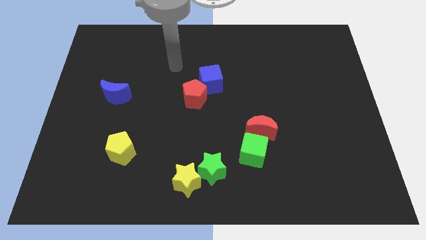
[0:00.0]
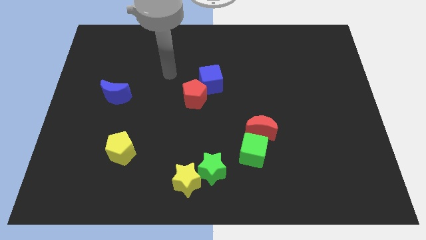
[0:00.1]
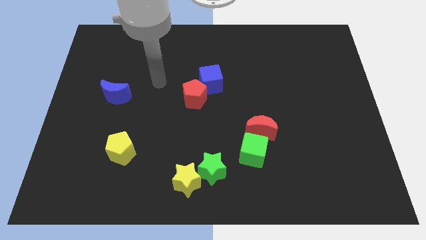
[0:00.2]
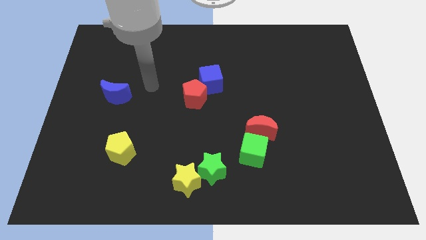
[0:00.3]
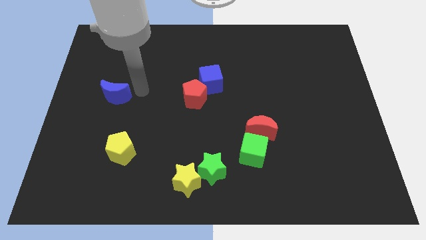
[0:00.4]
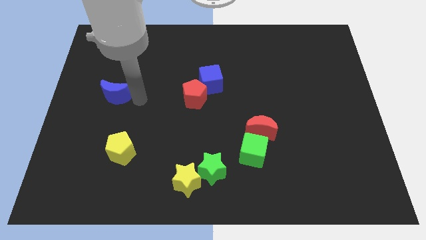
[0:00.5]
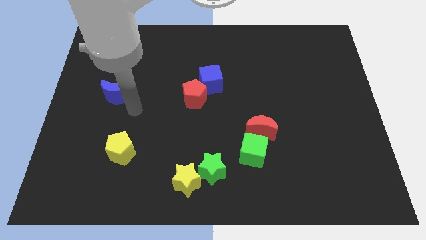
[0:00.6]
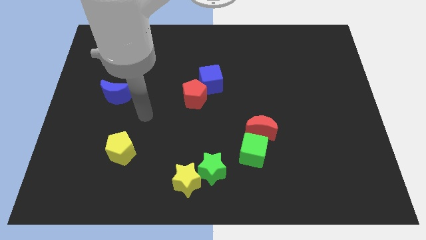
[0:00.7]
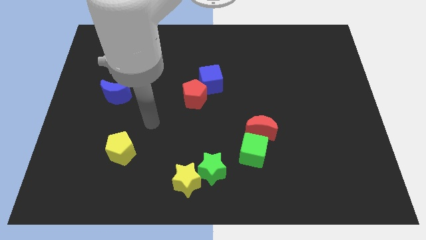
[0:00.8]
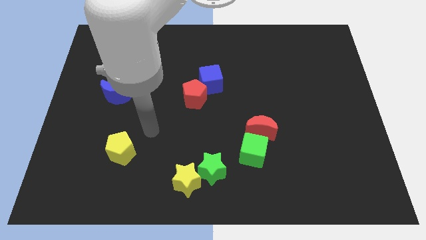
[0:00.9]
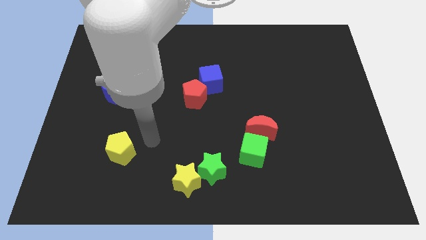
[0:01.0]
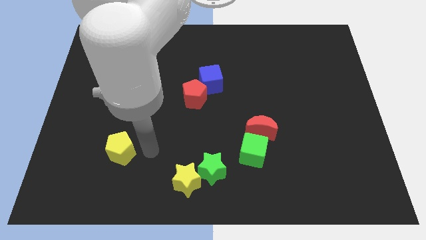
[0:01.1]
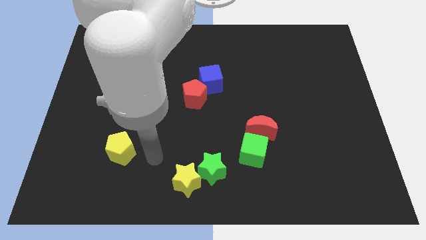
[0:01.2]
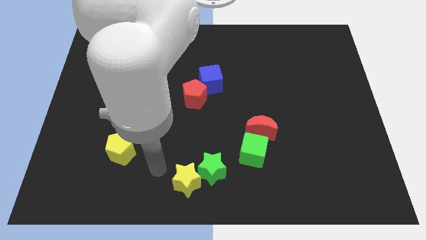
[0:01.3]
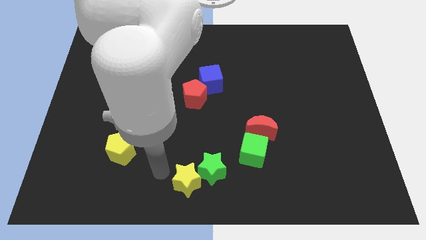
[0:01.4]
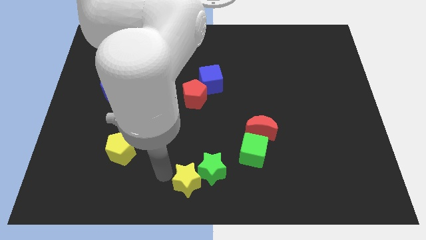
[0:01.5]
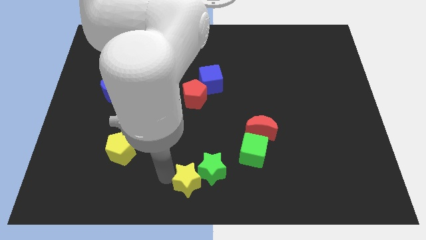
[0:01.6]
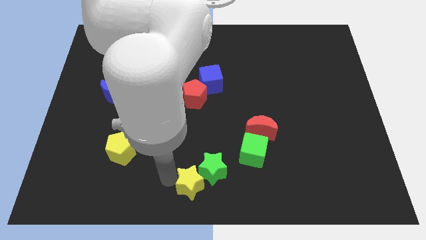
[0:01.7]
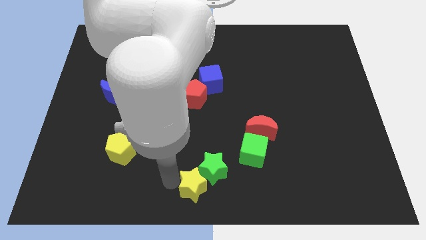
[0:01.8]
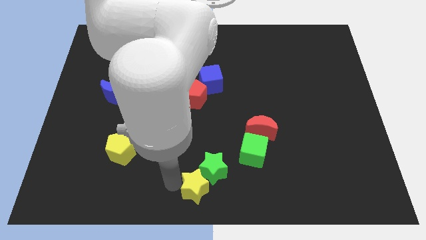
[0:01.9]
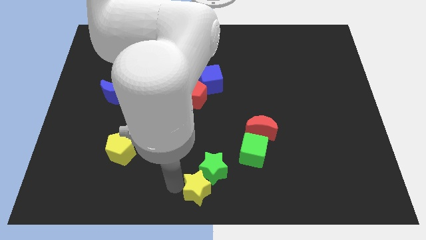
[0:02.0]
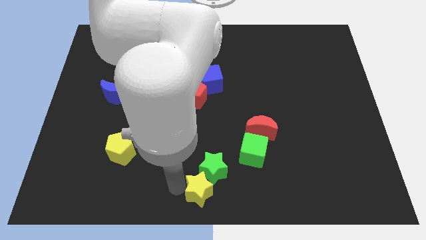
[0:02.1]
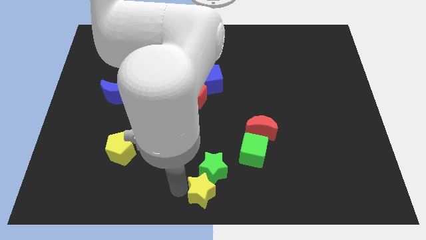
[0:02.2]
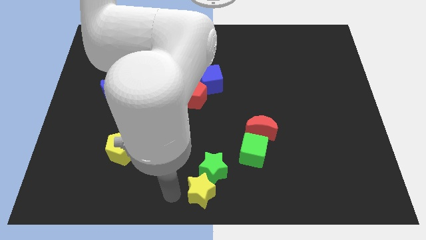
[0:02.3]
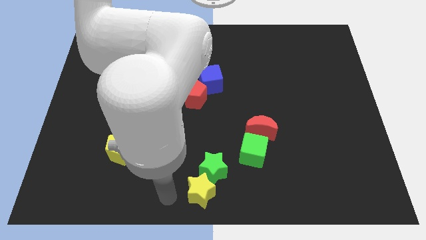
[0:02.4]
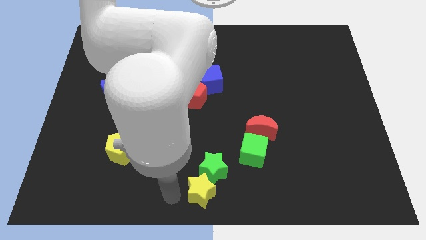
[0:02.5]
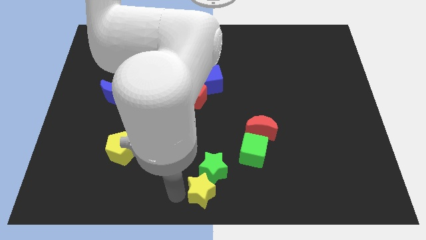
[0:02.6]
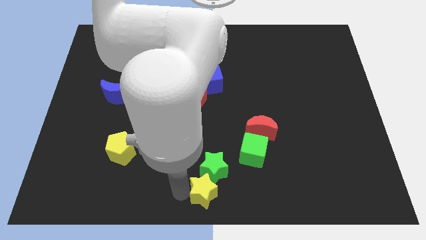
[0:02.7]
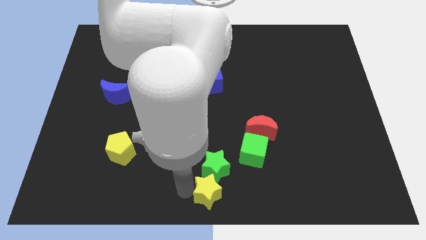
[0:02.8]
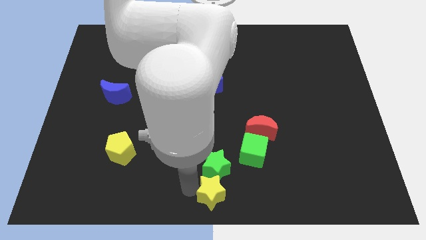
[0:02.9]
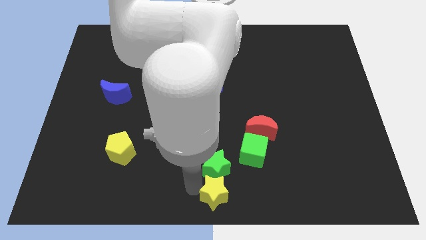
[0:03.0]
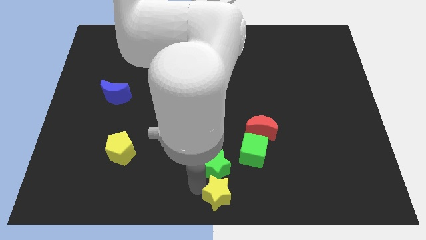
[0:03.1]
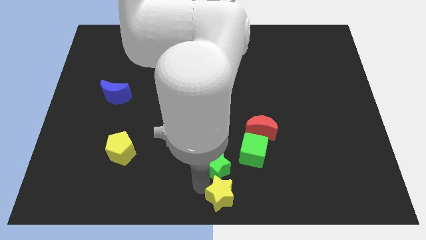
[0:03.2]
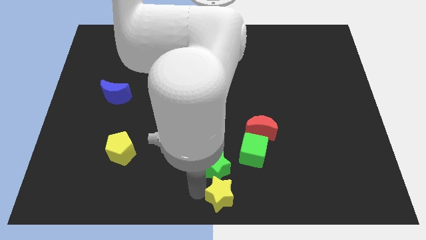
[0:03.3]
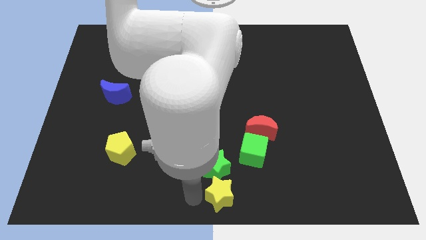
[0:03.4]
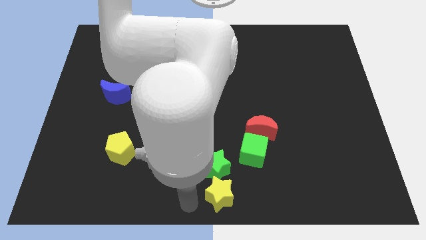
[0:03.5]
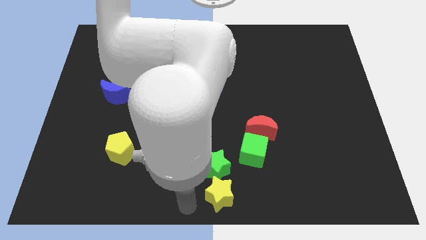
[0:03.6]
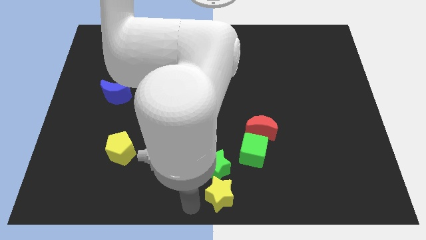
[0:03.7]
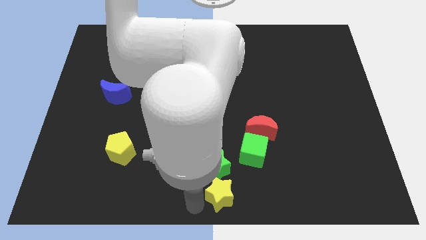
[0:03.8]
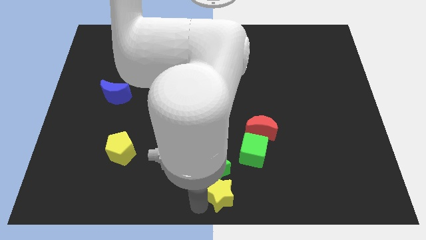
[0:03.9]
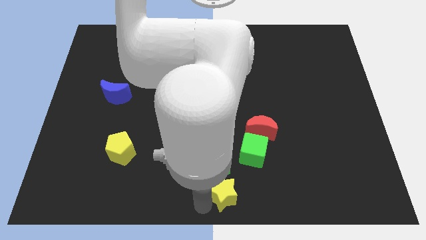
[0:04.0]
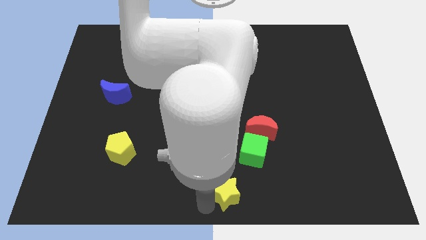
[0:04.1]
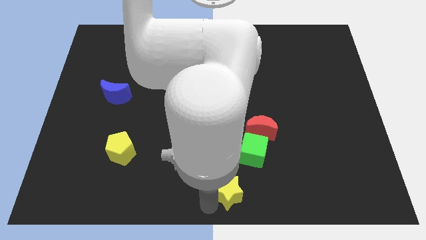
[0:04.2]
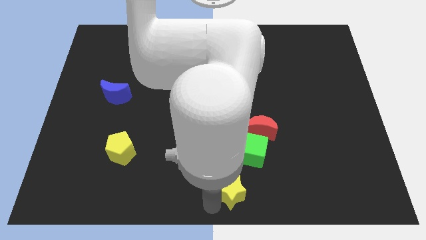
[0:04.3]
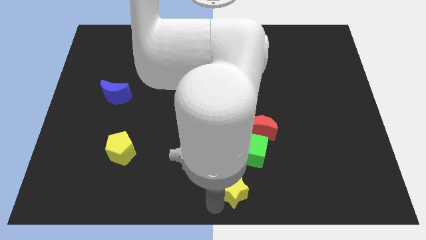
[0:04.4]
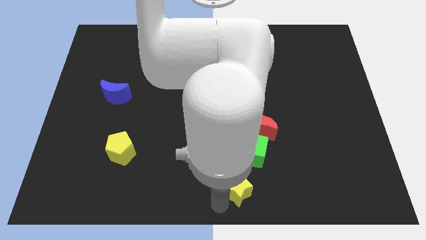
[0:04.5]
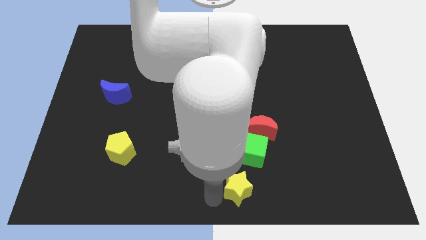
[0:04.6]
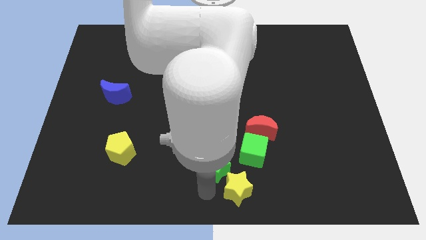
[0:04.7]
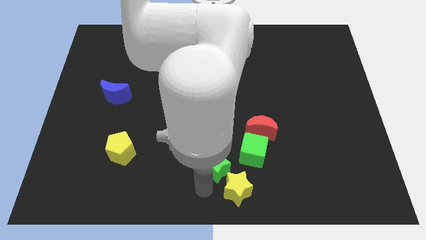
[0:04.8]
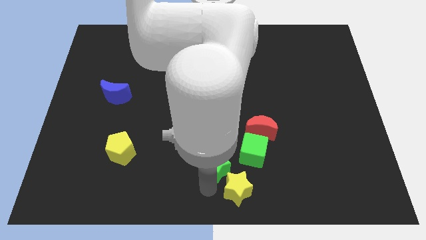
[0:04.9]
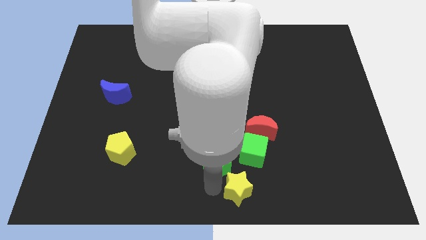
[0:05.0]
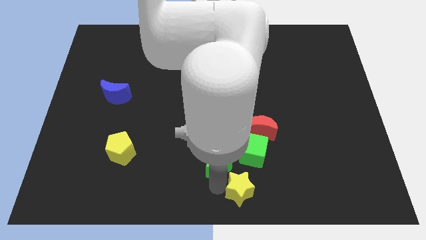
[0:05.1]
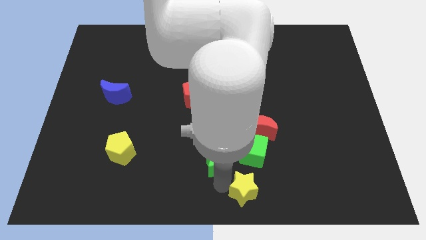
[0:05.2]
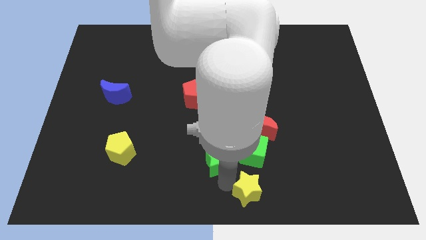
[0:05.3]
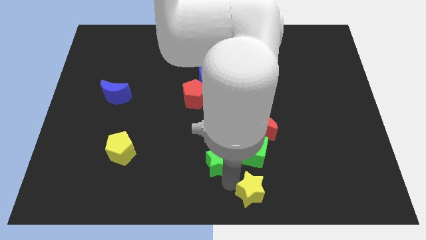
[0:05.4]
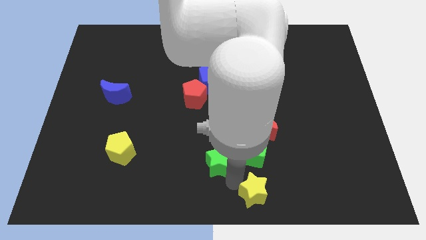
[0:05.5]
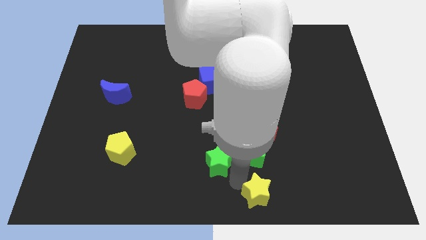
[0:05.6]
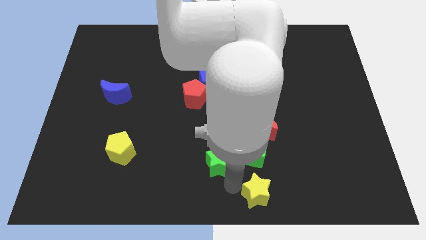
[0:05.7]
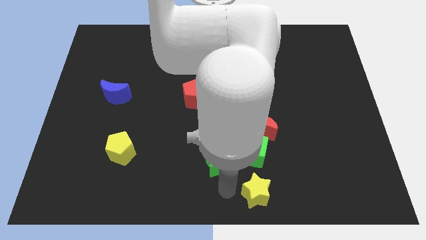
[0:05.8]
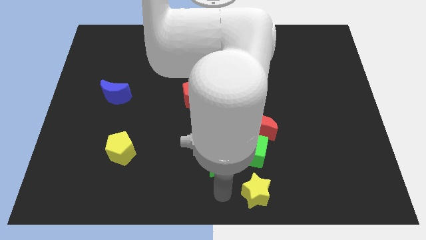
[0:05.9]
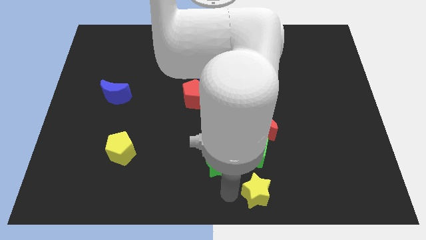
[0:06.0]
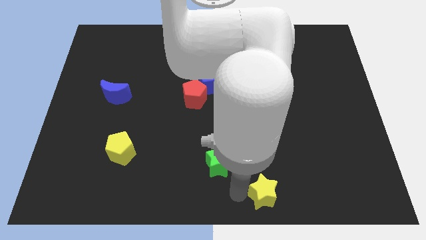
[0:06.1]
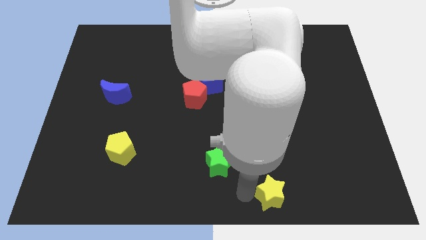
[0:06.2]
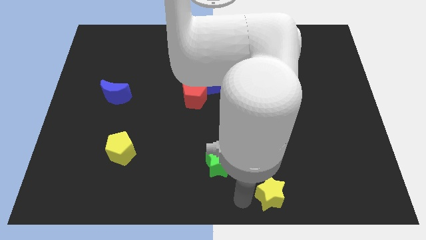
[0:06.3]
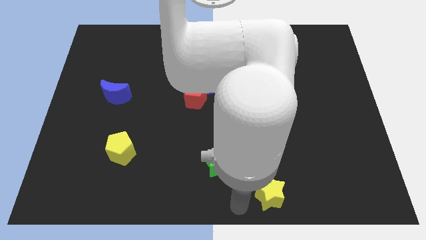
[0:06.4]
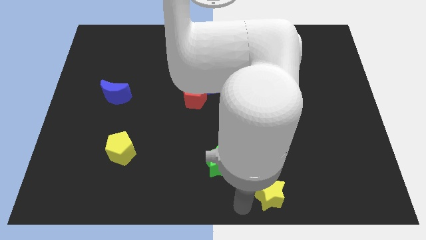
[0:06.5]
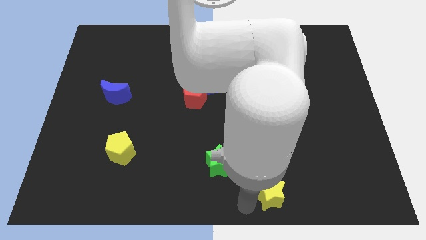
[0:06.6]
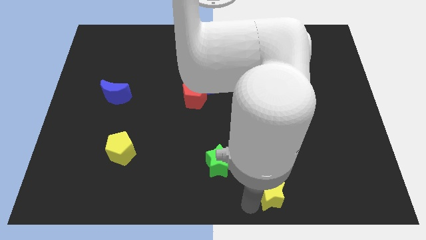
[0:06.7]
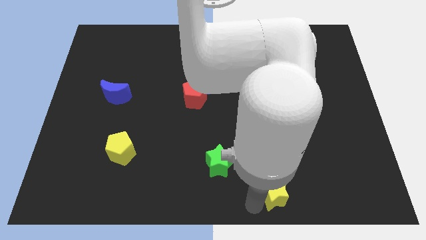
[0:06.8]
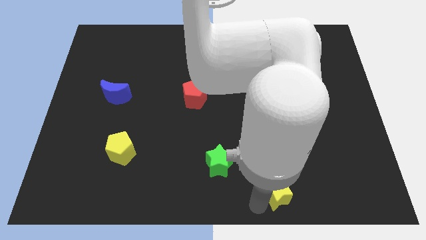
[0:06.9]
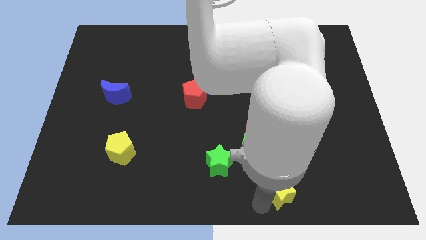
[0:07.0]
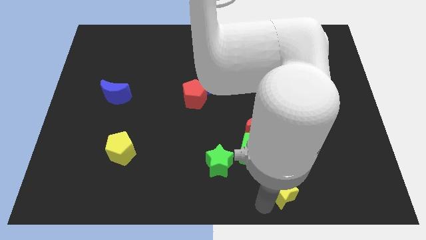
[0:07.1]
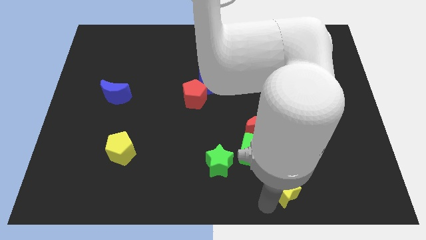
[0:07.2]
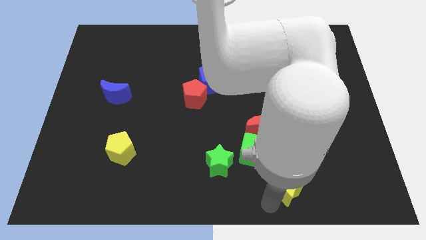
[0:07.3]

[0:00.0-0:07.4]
slide the yellow star to the right

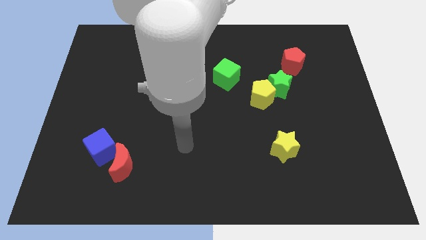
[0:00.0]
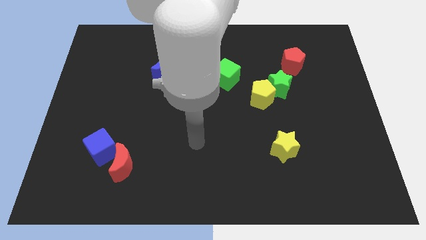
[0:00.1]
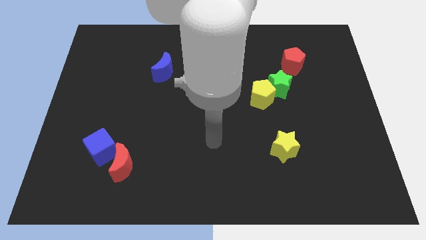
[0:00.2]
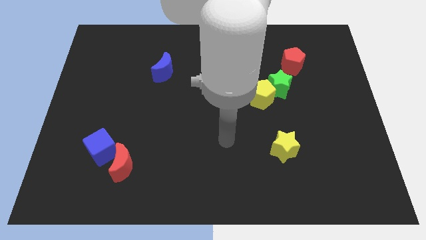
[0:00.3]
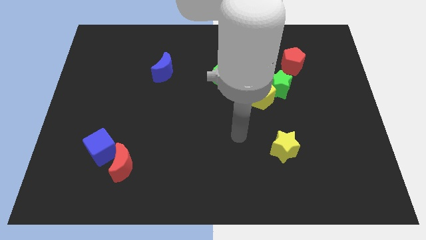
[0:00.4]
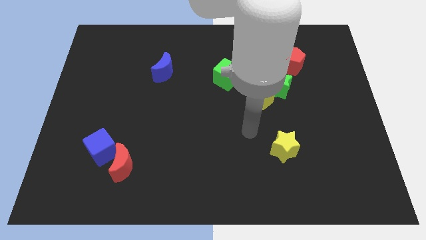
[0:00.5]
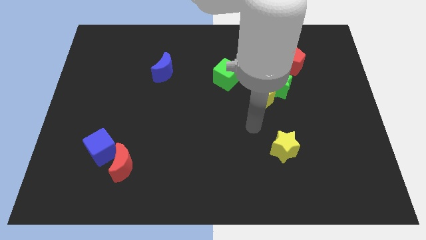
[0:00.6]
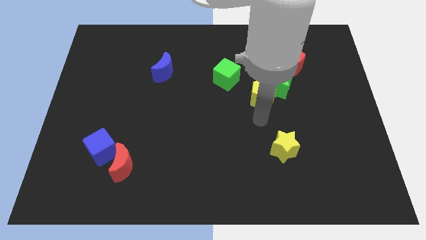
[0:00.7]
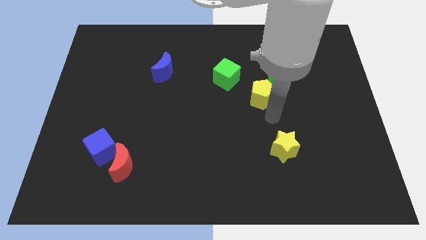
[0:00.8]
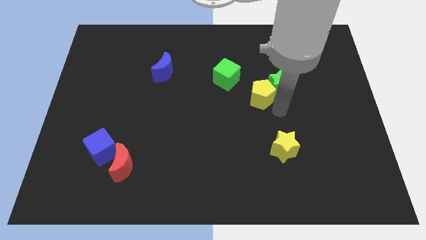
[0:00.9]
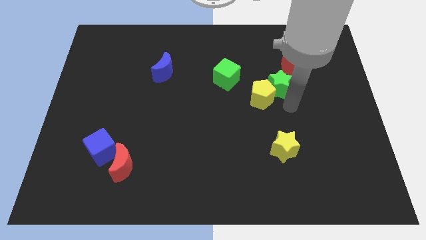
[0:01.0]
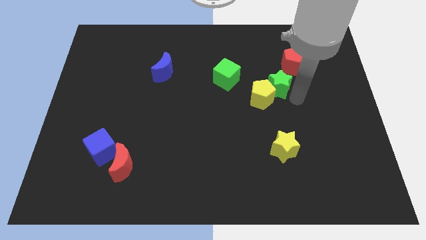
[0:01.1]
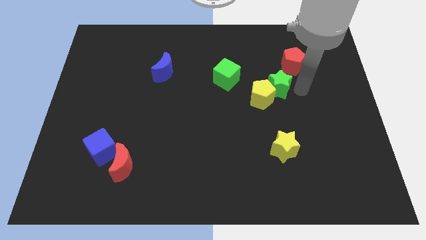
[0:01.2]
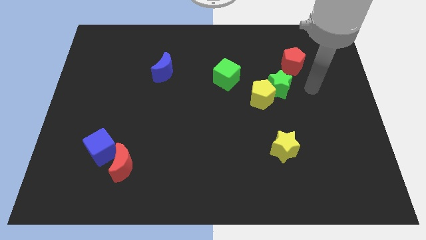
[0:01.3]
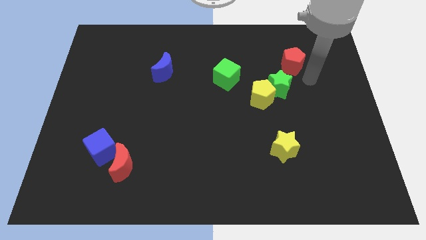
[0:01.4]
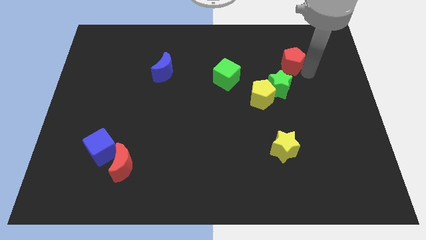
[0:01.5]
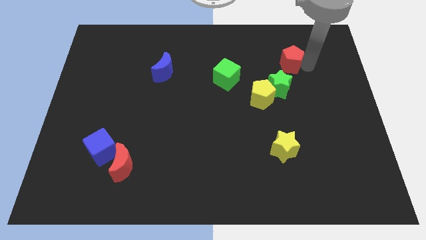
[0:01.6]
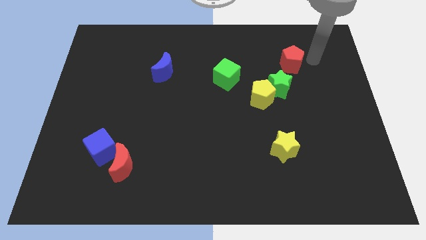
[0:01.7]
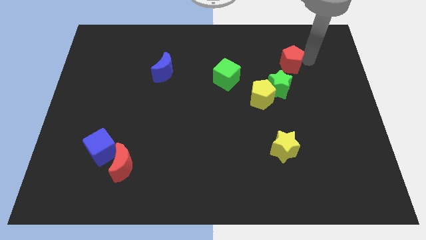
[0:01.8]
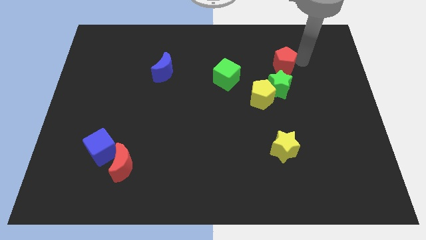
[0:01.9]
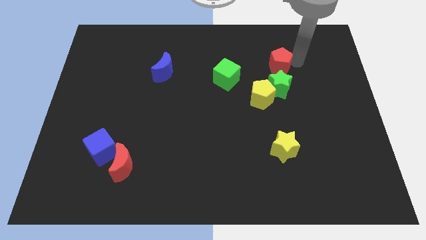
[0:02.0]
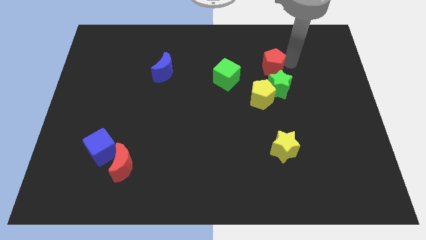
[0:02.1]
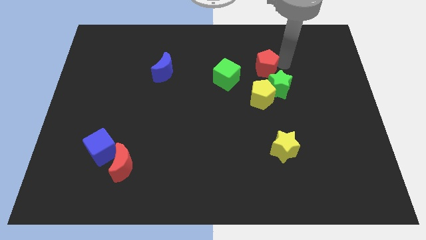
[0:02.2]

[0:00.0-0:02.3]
move the red pentagon left slightly
